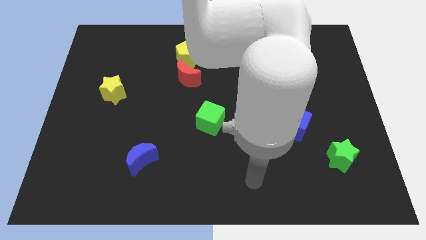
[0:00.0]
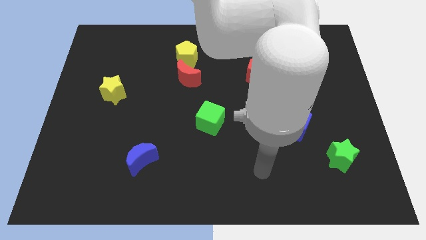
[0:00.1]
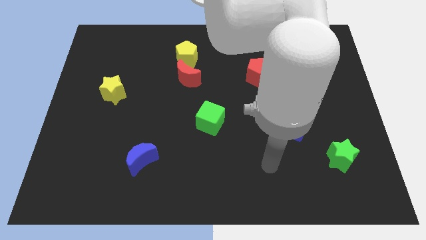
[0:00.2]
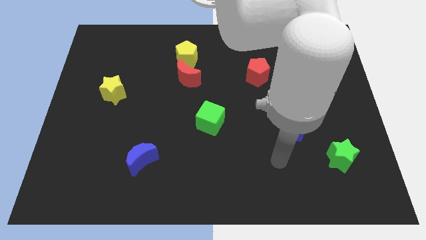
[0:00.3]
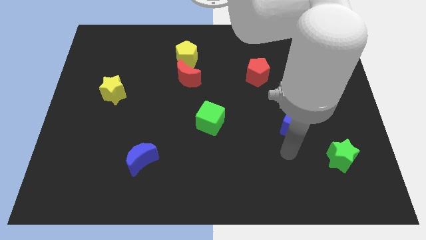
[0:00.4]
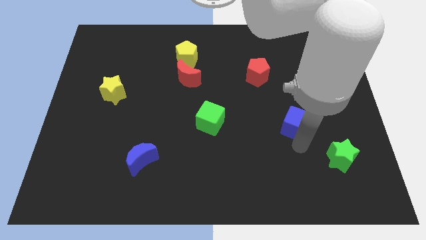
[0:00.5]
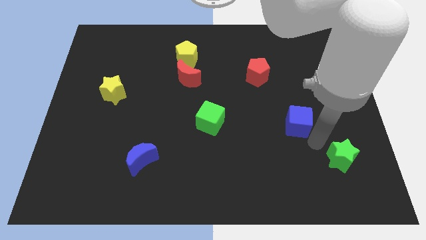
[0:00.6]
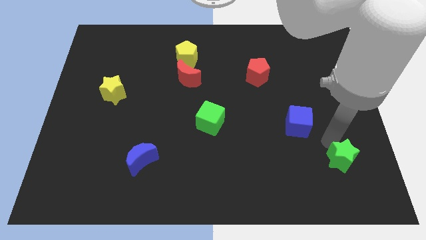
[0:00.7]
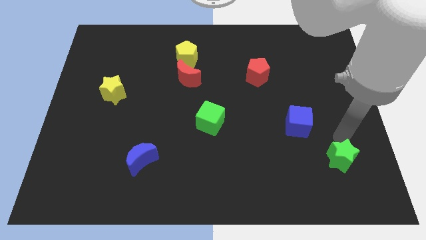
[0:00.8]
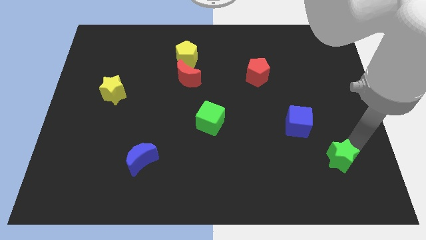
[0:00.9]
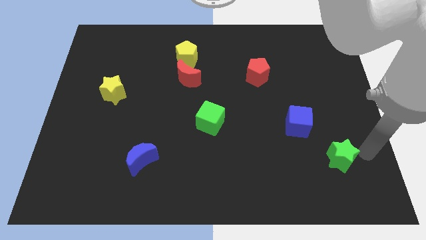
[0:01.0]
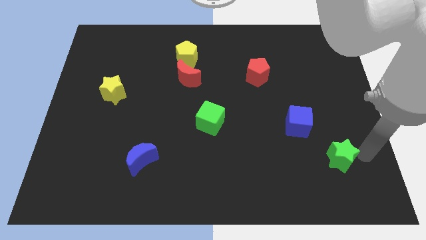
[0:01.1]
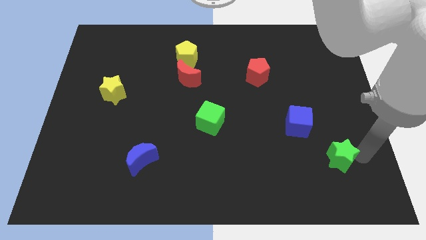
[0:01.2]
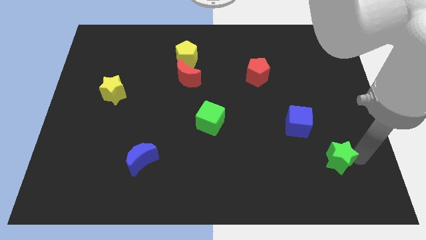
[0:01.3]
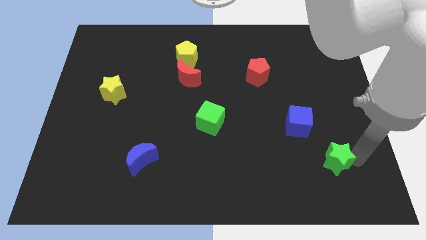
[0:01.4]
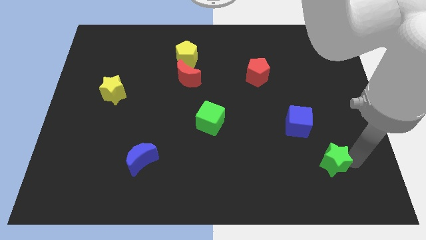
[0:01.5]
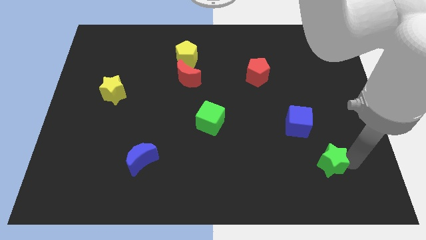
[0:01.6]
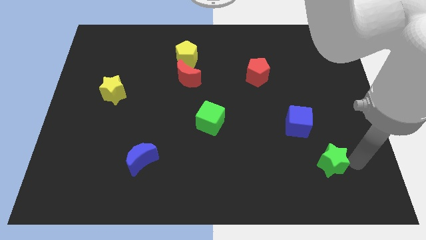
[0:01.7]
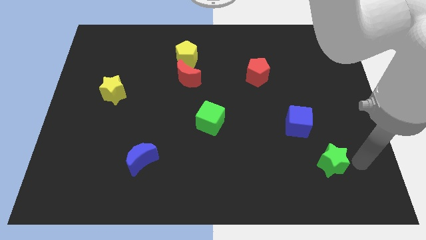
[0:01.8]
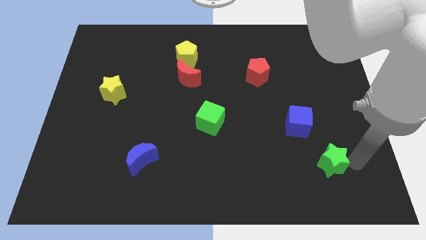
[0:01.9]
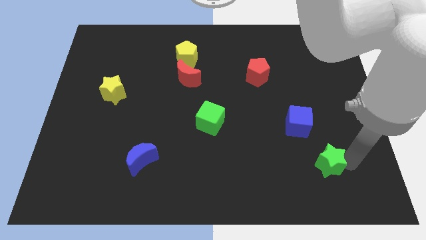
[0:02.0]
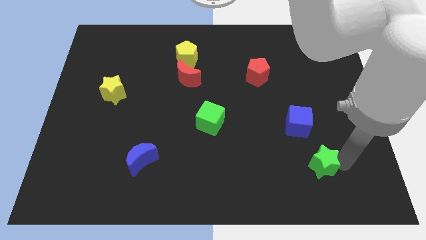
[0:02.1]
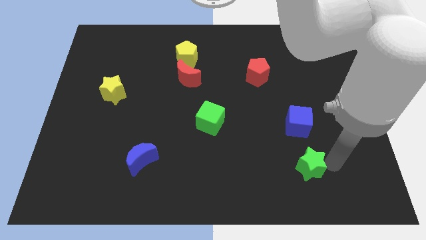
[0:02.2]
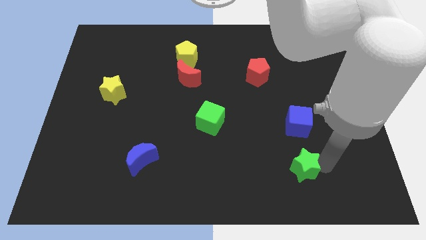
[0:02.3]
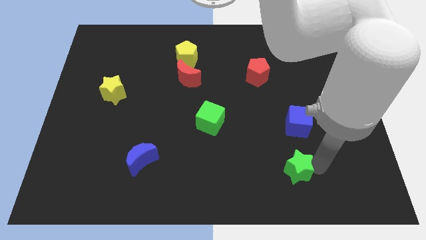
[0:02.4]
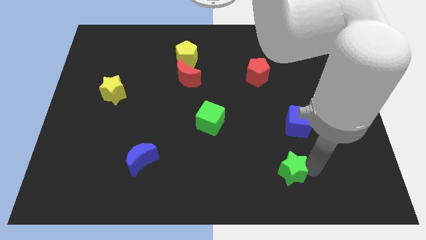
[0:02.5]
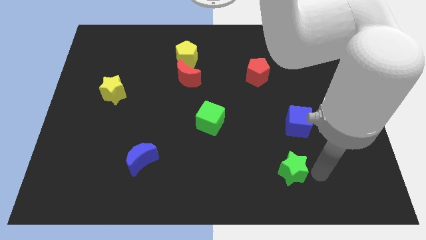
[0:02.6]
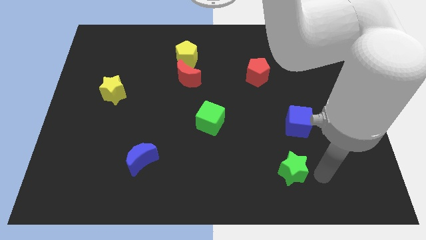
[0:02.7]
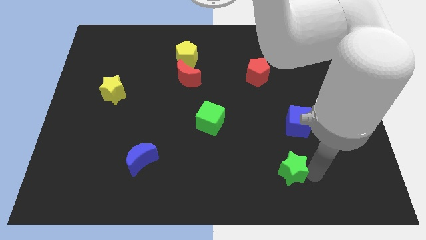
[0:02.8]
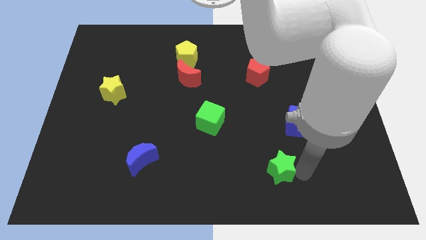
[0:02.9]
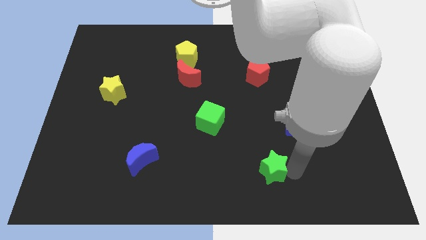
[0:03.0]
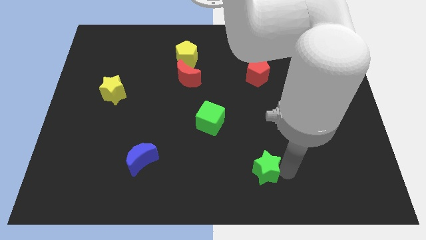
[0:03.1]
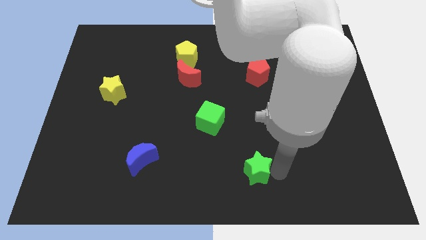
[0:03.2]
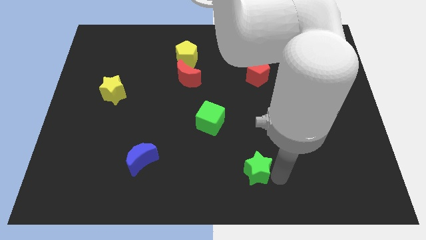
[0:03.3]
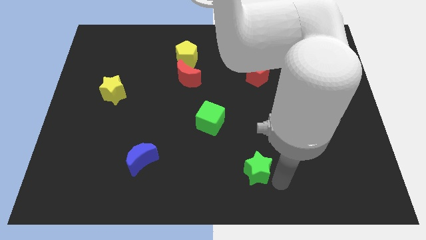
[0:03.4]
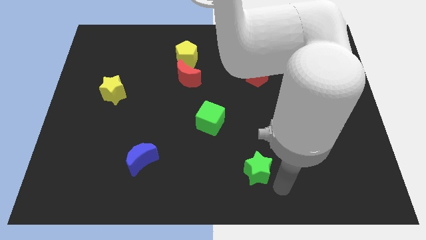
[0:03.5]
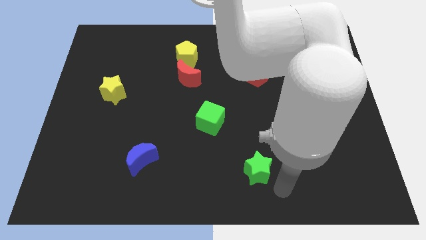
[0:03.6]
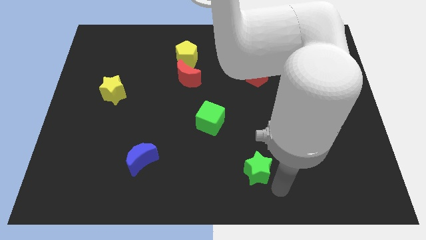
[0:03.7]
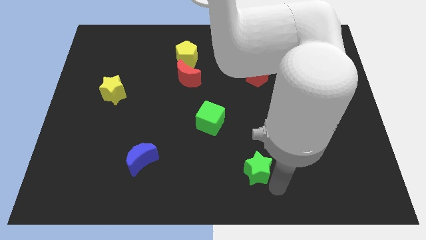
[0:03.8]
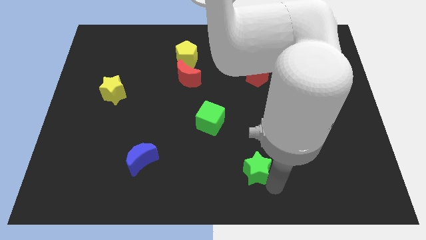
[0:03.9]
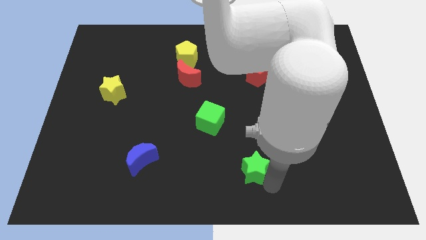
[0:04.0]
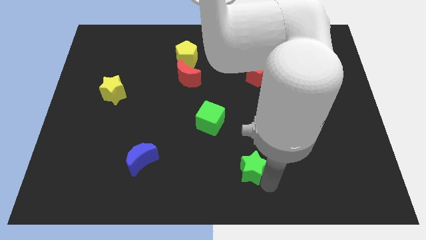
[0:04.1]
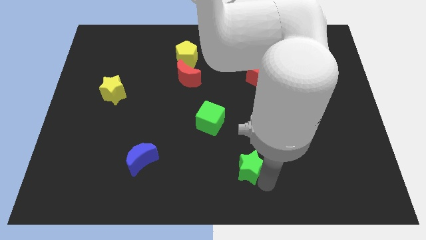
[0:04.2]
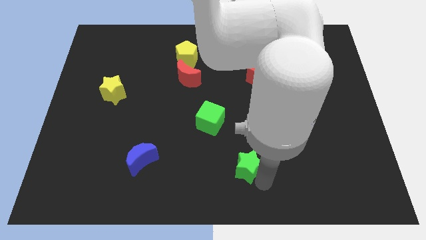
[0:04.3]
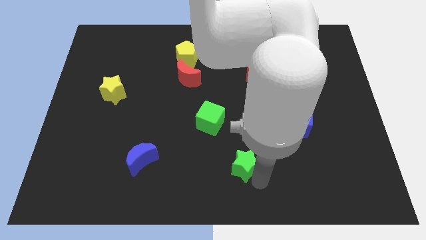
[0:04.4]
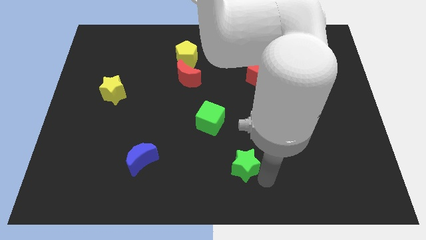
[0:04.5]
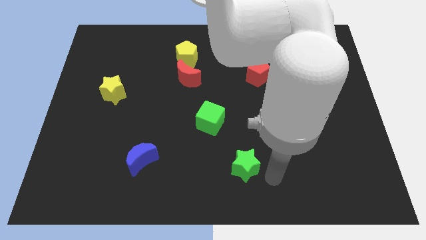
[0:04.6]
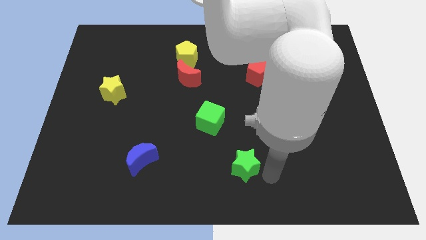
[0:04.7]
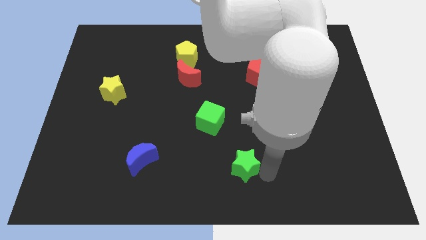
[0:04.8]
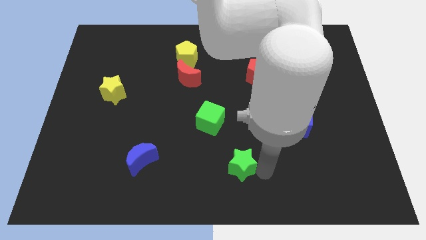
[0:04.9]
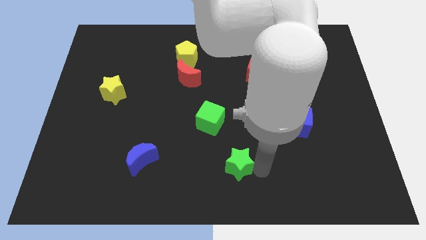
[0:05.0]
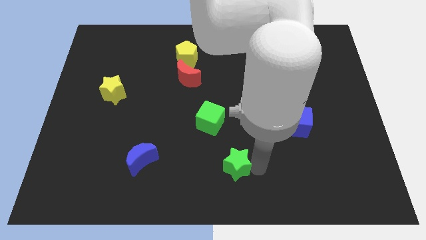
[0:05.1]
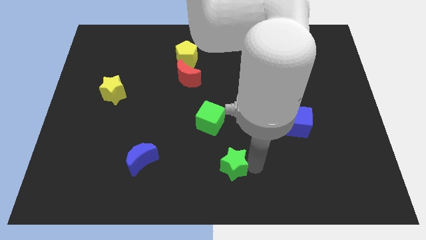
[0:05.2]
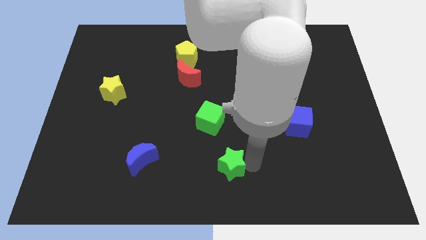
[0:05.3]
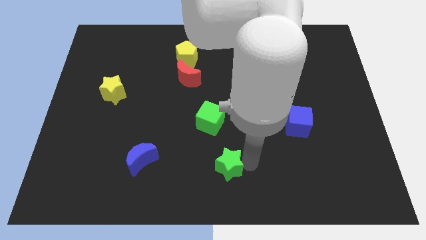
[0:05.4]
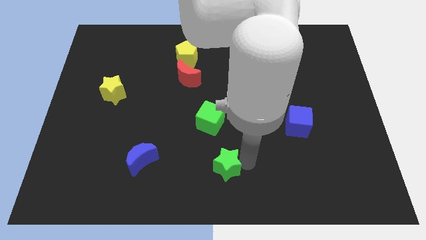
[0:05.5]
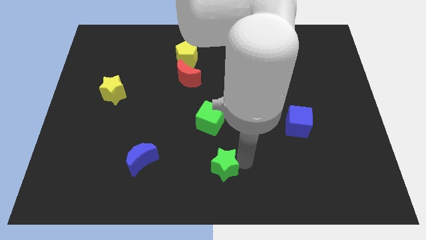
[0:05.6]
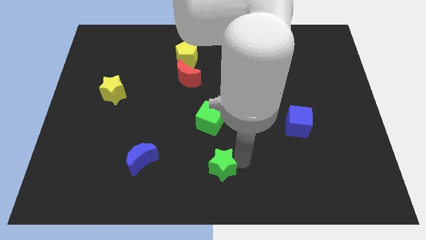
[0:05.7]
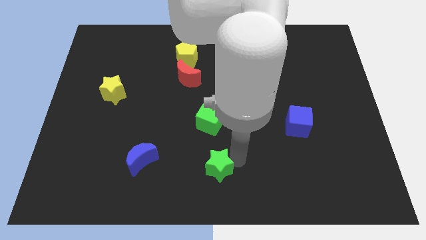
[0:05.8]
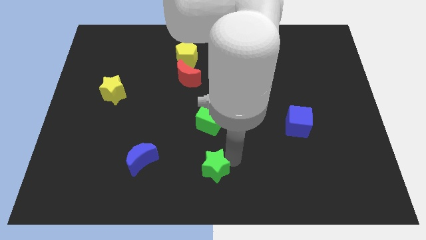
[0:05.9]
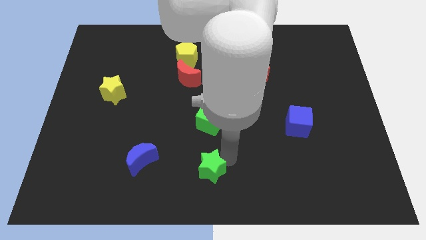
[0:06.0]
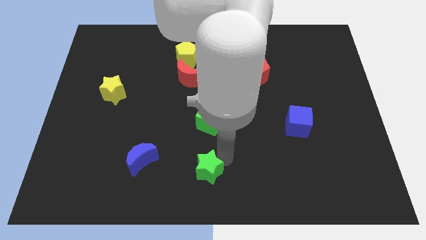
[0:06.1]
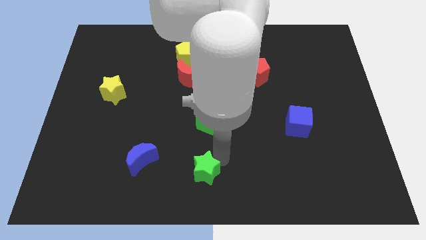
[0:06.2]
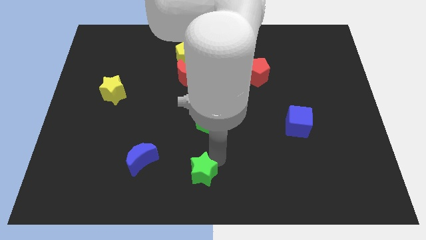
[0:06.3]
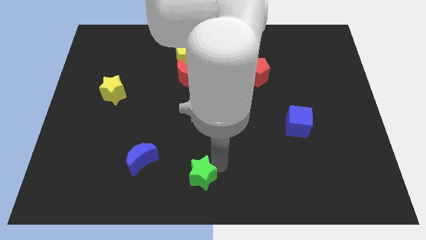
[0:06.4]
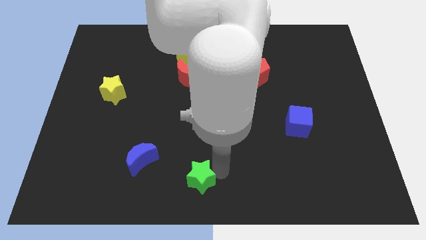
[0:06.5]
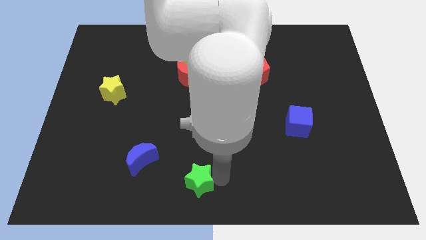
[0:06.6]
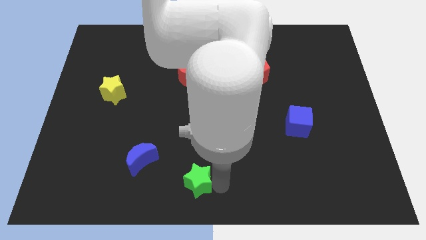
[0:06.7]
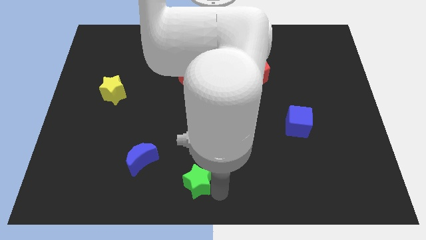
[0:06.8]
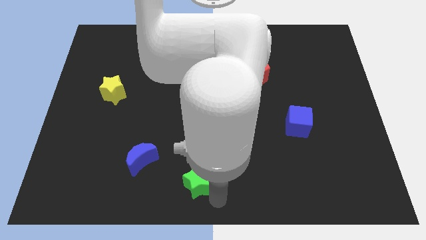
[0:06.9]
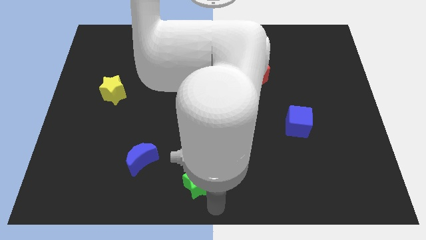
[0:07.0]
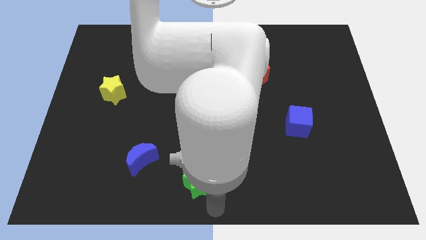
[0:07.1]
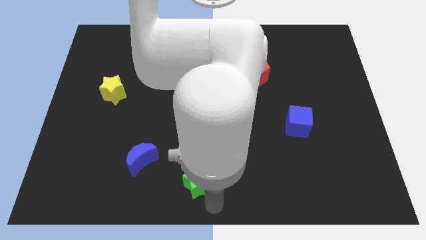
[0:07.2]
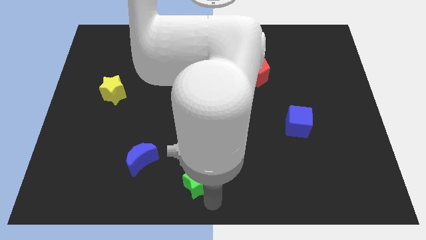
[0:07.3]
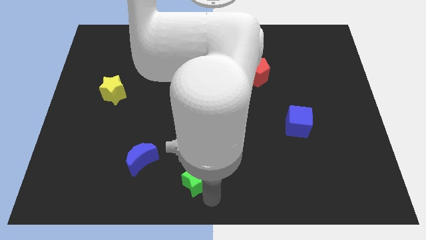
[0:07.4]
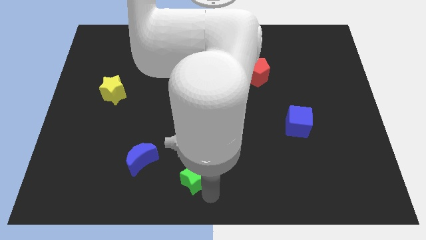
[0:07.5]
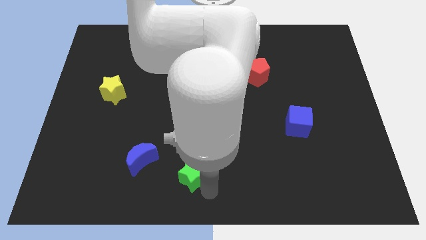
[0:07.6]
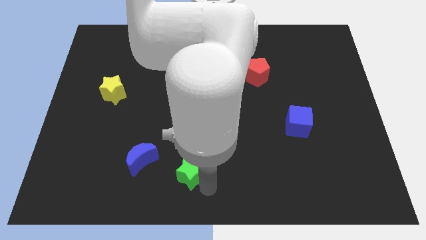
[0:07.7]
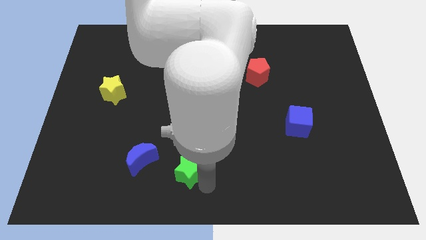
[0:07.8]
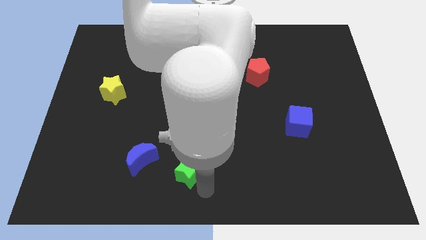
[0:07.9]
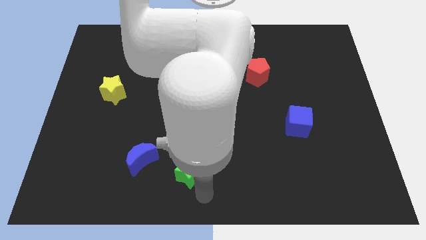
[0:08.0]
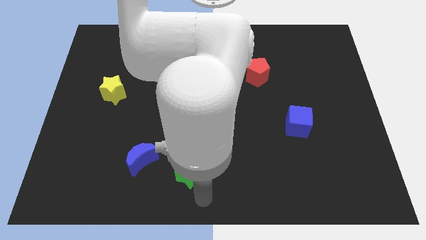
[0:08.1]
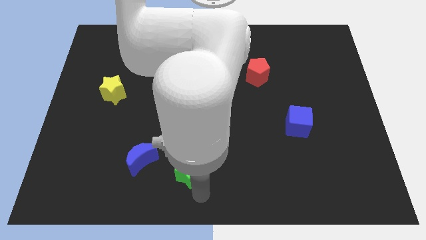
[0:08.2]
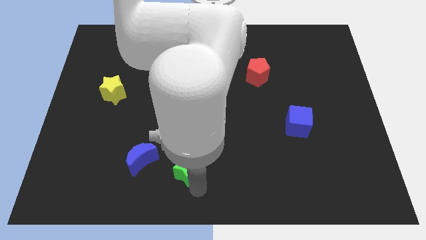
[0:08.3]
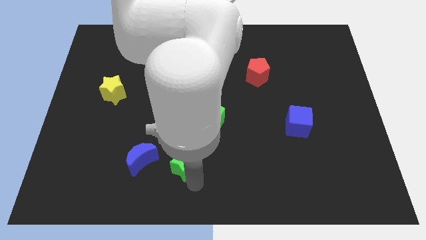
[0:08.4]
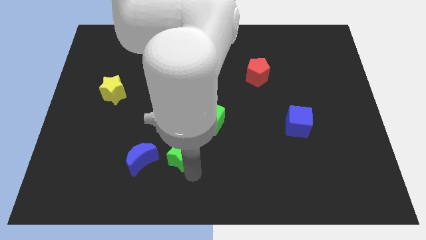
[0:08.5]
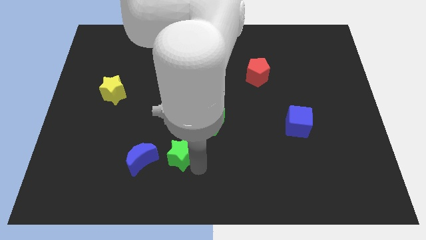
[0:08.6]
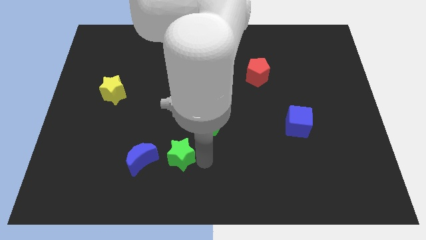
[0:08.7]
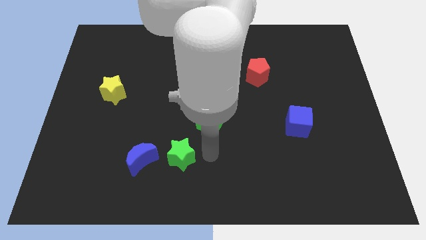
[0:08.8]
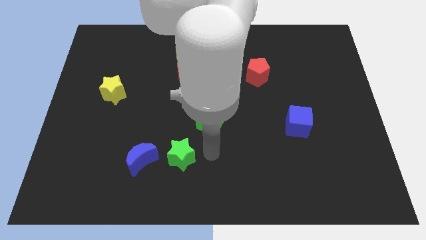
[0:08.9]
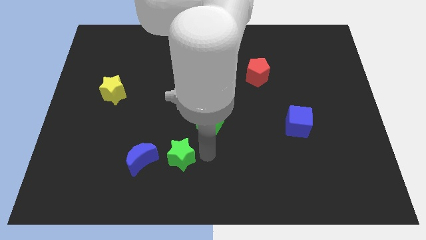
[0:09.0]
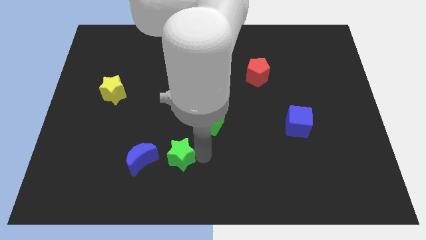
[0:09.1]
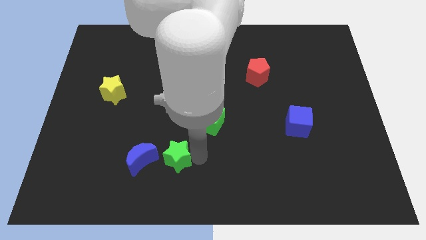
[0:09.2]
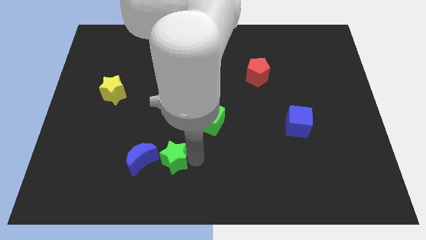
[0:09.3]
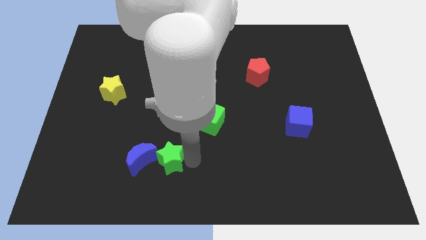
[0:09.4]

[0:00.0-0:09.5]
slide the green star to the blue moon
